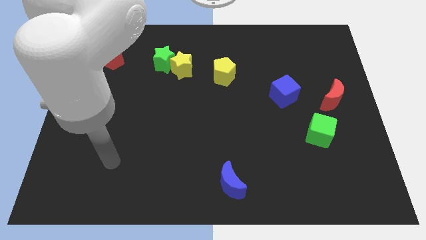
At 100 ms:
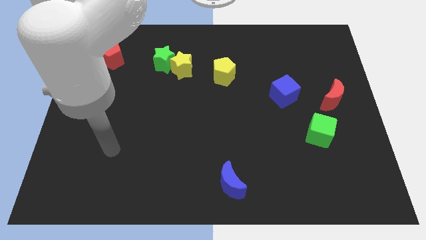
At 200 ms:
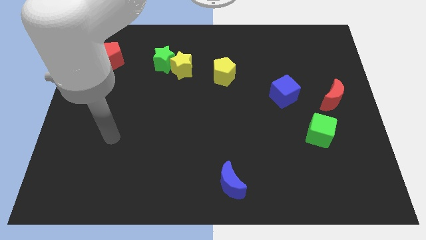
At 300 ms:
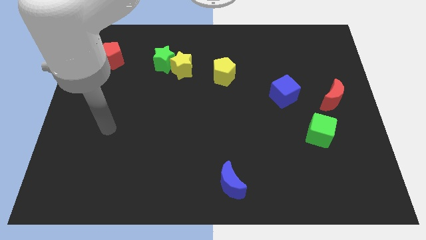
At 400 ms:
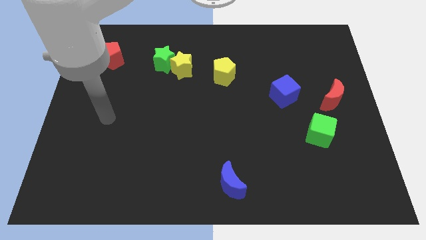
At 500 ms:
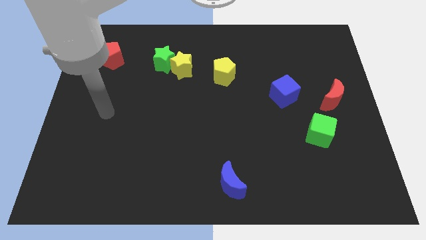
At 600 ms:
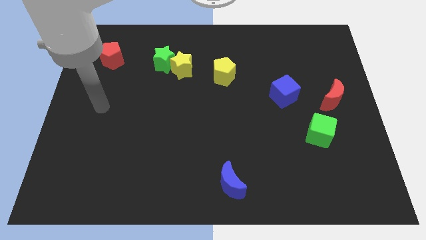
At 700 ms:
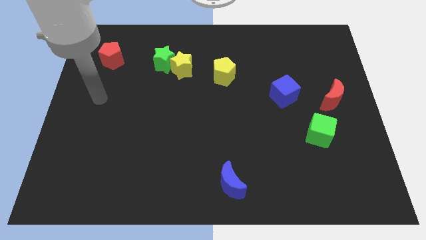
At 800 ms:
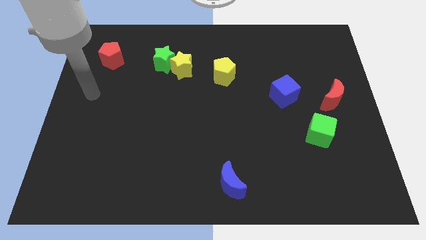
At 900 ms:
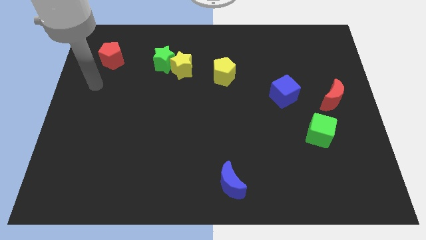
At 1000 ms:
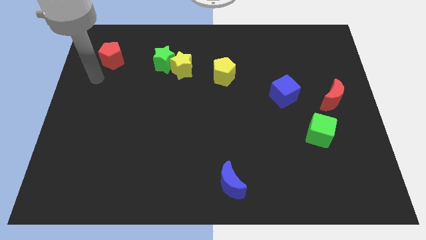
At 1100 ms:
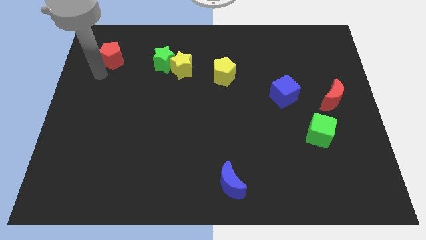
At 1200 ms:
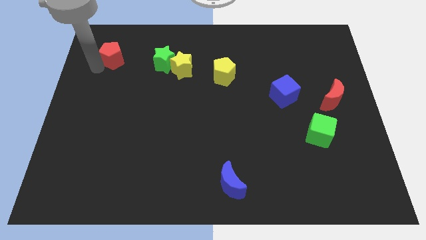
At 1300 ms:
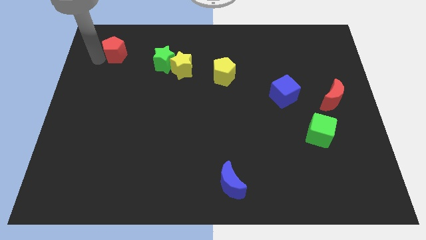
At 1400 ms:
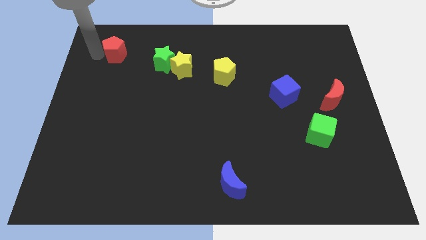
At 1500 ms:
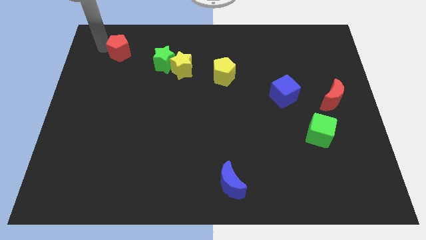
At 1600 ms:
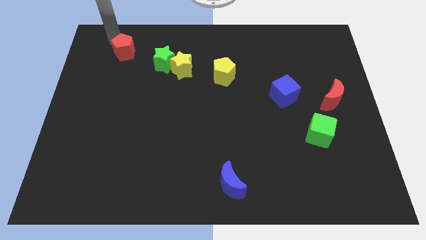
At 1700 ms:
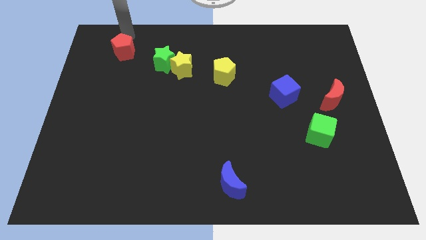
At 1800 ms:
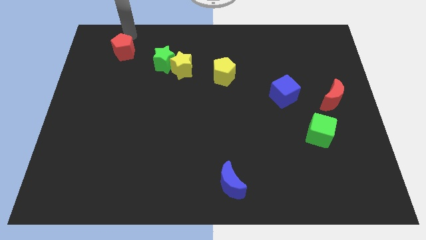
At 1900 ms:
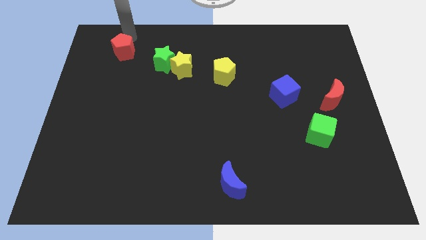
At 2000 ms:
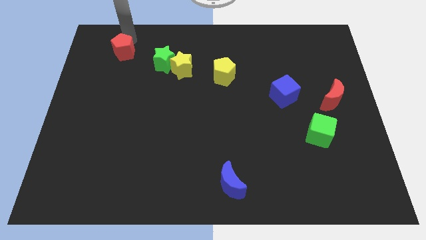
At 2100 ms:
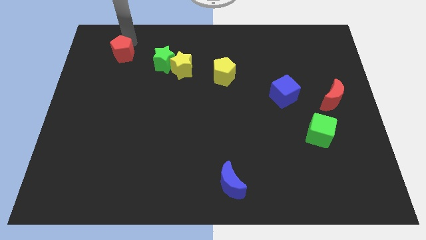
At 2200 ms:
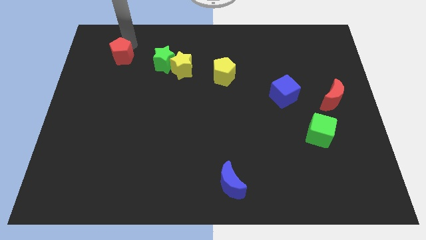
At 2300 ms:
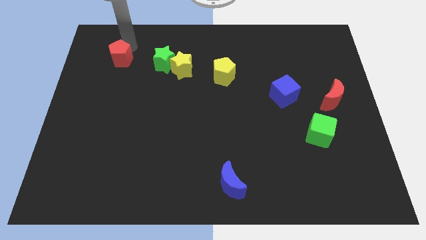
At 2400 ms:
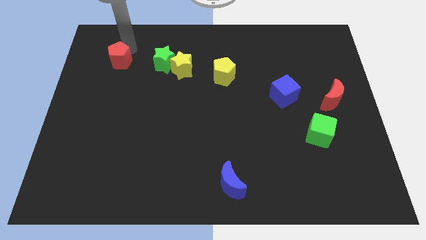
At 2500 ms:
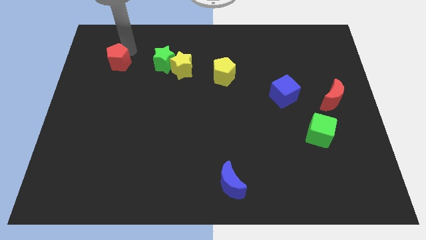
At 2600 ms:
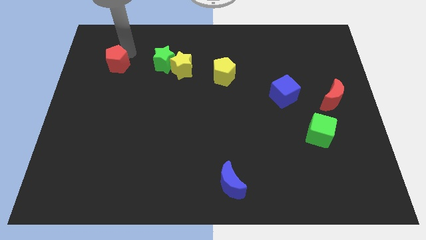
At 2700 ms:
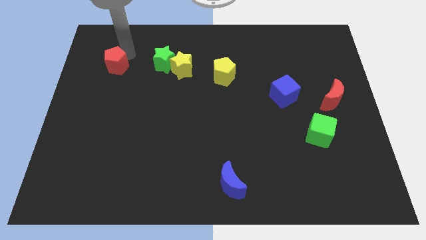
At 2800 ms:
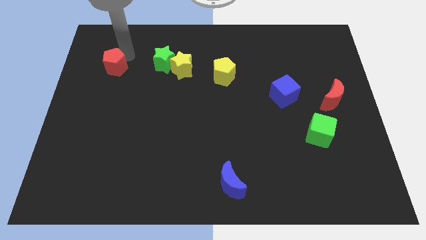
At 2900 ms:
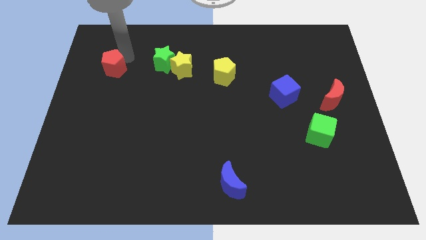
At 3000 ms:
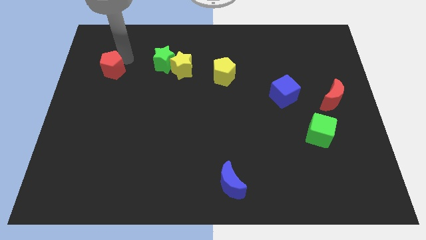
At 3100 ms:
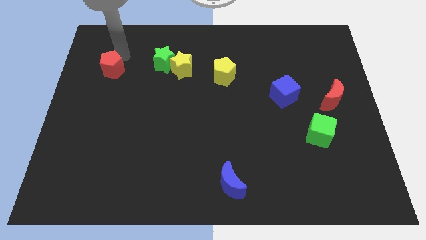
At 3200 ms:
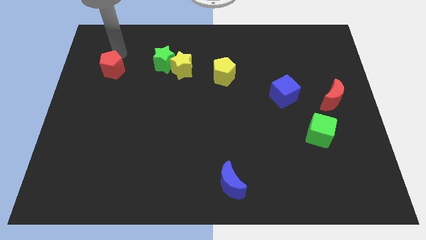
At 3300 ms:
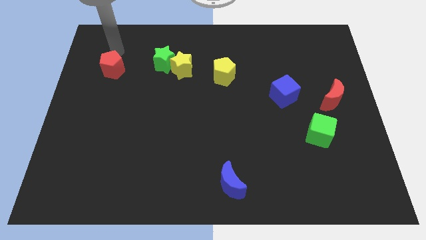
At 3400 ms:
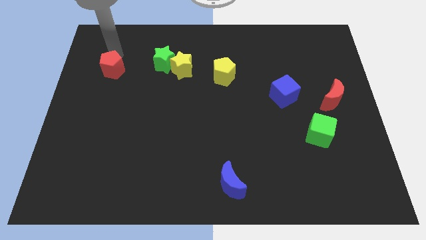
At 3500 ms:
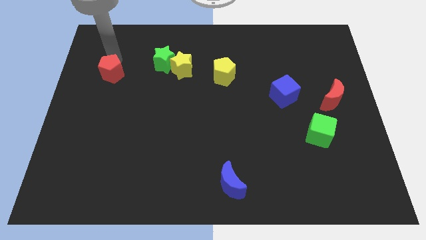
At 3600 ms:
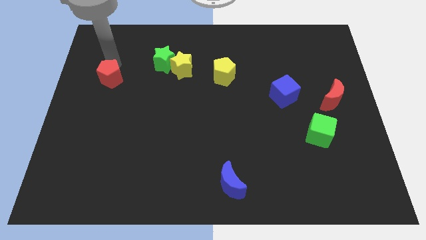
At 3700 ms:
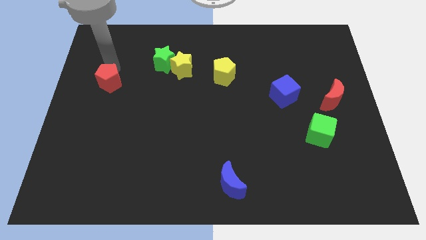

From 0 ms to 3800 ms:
push the red pentagon a little downwards

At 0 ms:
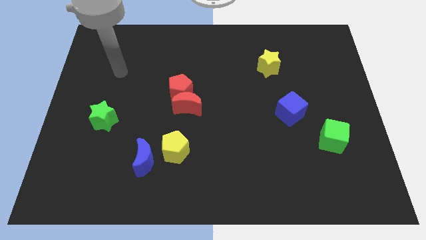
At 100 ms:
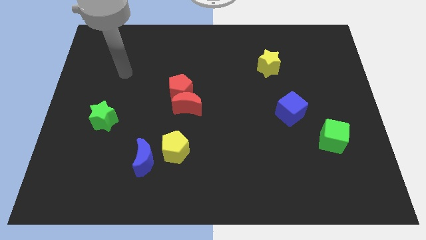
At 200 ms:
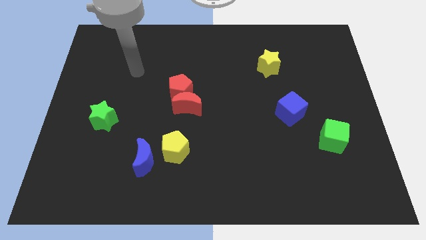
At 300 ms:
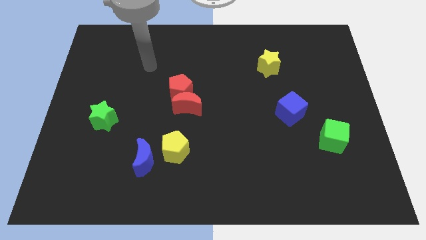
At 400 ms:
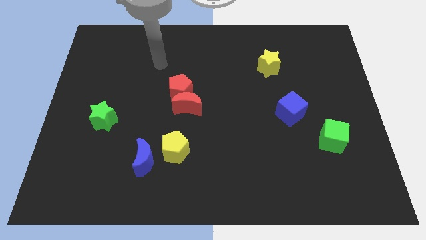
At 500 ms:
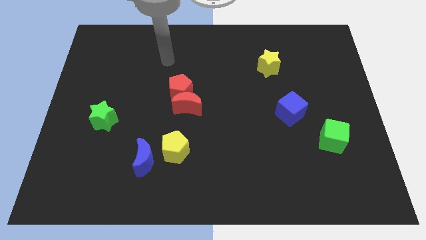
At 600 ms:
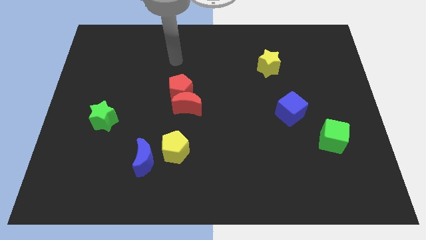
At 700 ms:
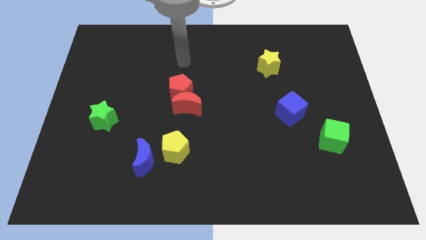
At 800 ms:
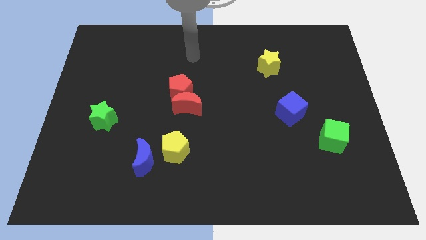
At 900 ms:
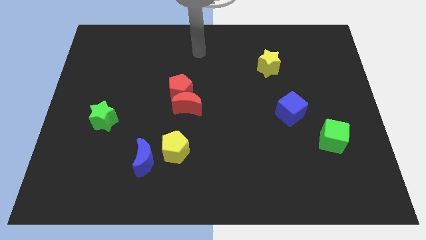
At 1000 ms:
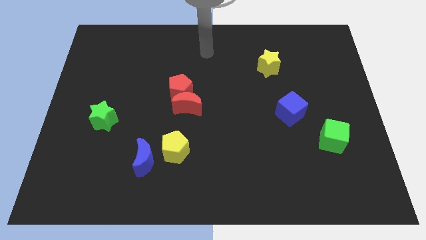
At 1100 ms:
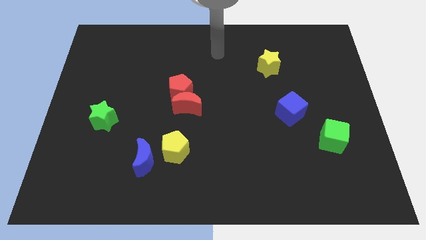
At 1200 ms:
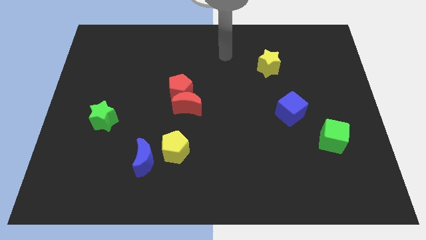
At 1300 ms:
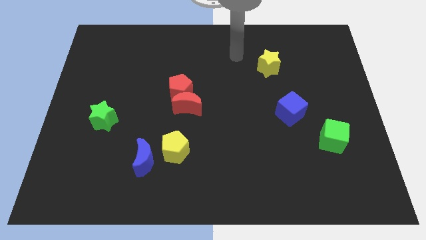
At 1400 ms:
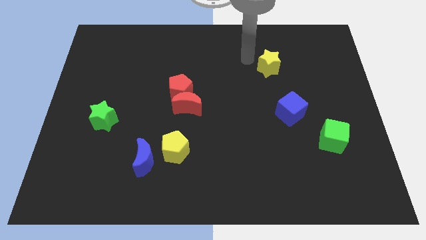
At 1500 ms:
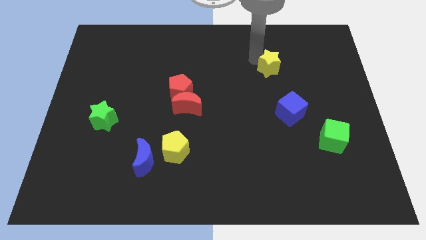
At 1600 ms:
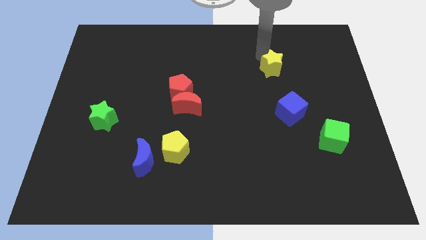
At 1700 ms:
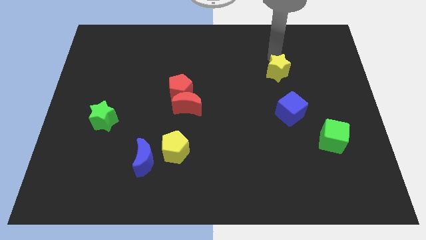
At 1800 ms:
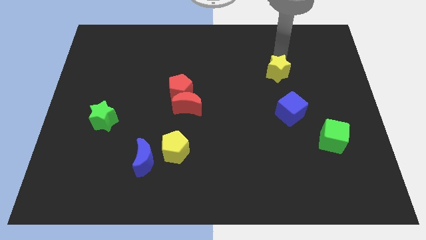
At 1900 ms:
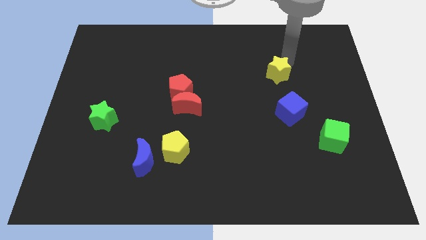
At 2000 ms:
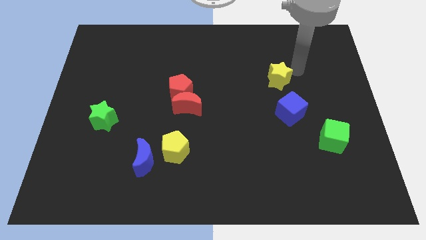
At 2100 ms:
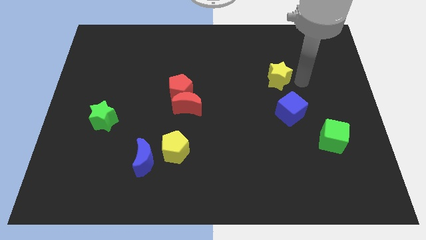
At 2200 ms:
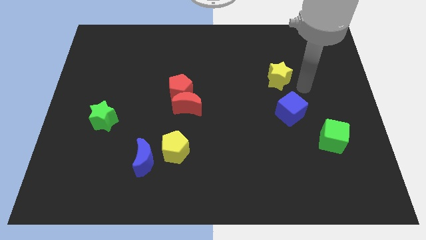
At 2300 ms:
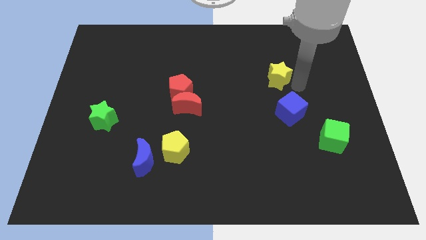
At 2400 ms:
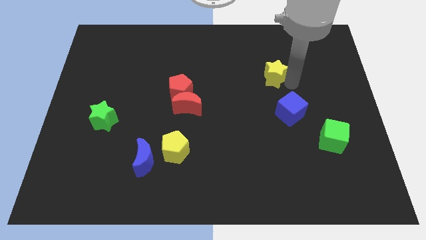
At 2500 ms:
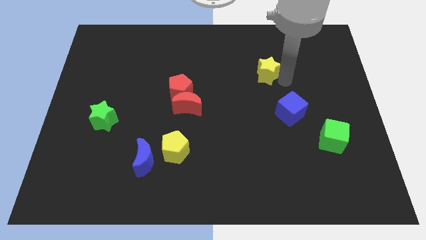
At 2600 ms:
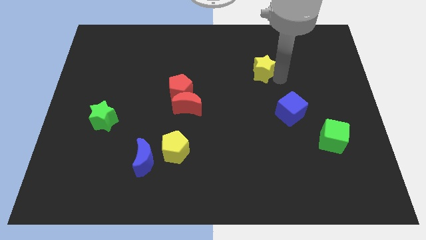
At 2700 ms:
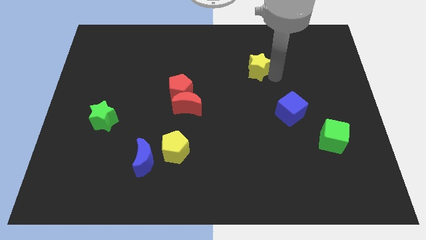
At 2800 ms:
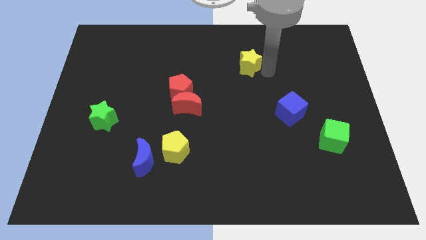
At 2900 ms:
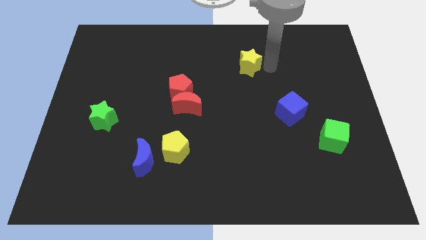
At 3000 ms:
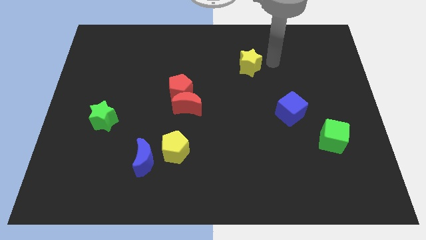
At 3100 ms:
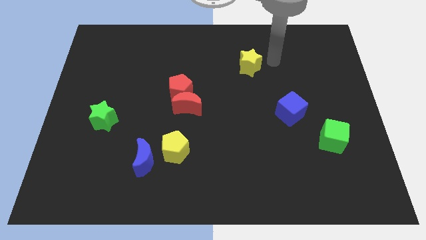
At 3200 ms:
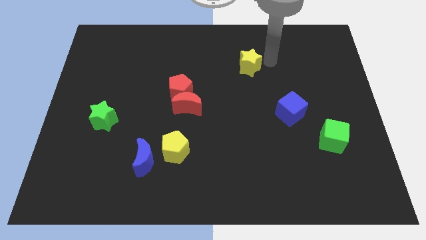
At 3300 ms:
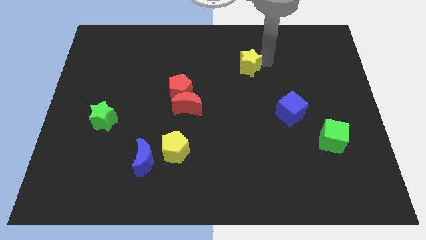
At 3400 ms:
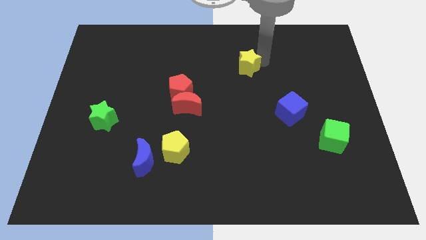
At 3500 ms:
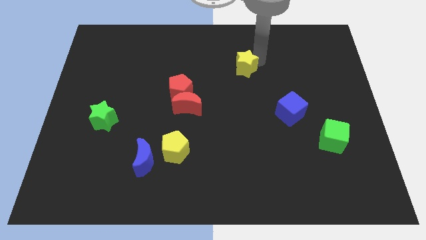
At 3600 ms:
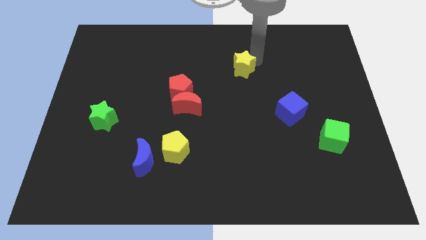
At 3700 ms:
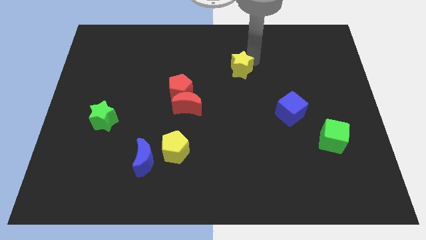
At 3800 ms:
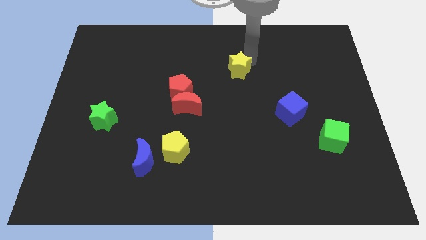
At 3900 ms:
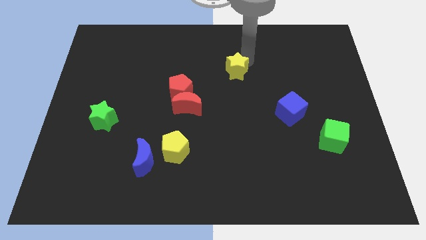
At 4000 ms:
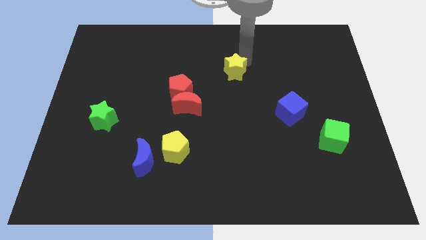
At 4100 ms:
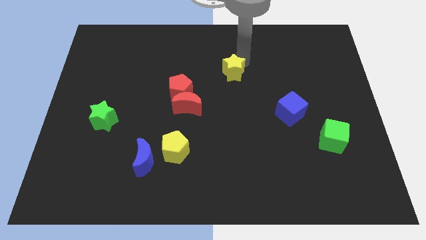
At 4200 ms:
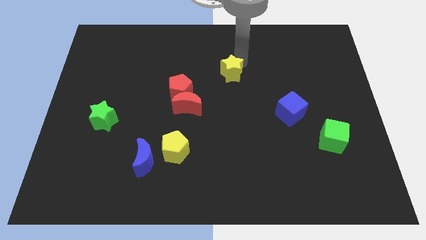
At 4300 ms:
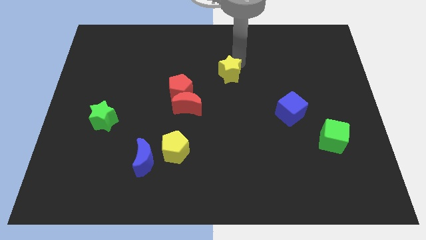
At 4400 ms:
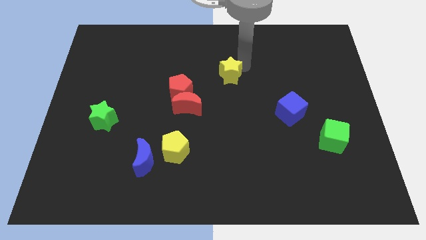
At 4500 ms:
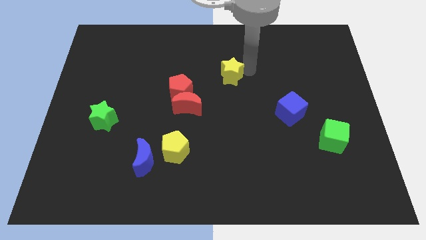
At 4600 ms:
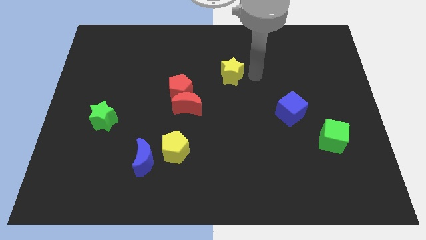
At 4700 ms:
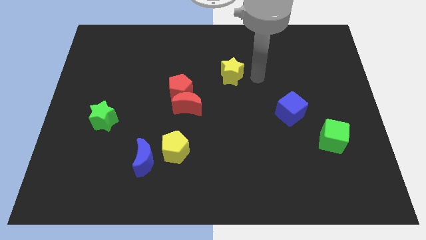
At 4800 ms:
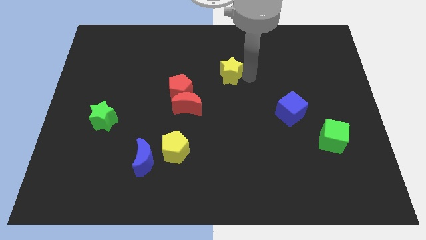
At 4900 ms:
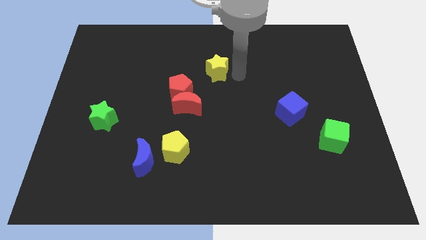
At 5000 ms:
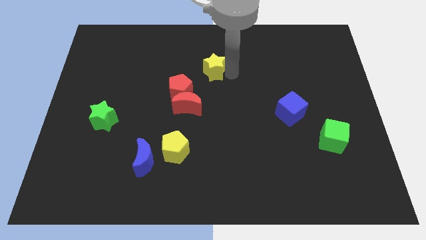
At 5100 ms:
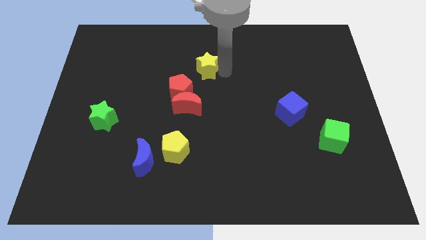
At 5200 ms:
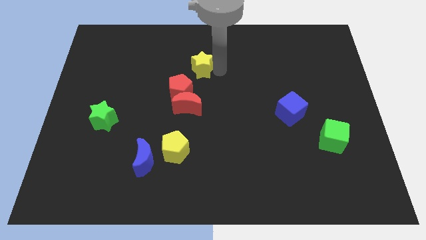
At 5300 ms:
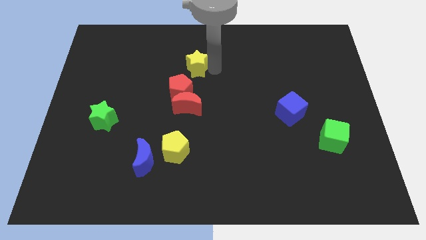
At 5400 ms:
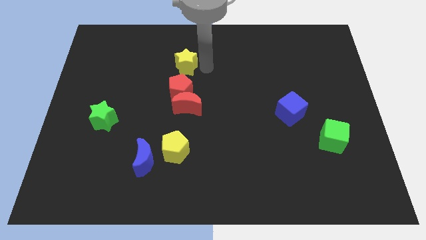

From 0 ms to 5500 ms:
move the yellow star to the left
